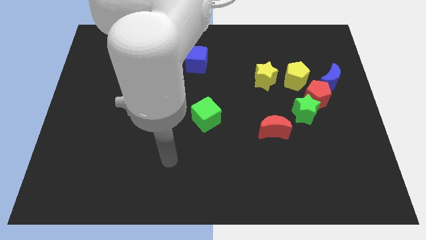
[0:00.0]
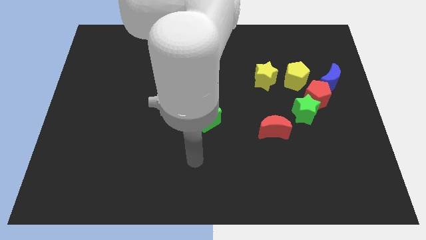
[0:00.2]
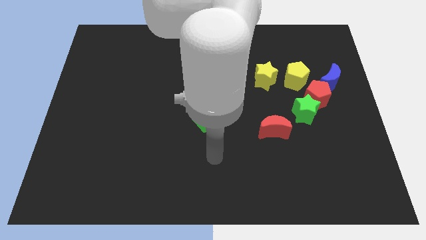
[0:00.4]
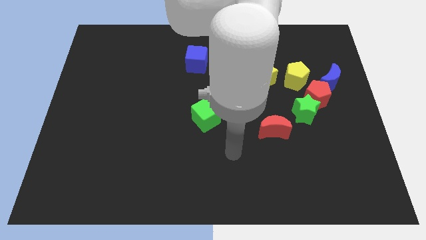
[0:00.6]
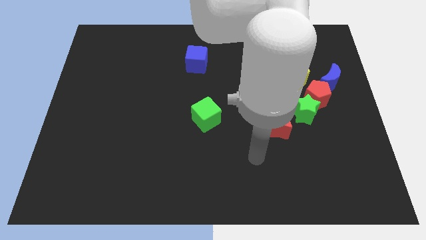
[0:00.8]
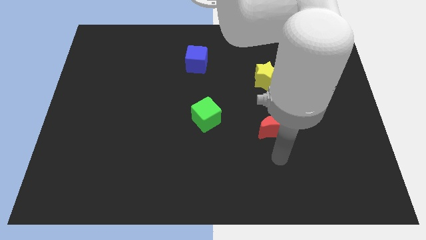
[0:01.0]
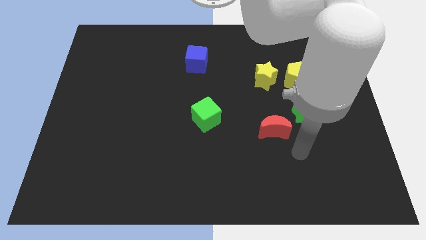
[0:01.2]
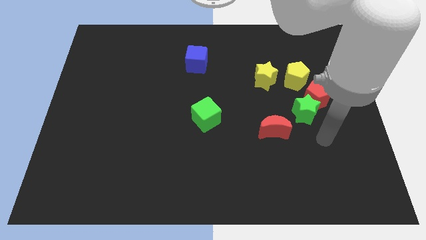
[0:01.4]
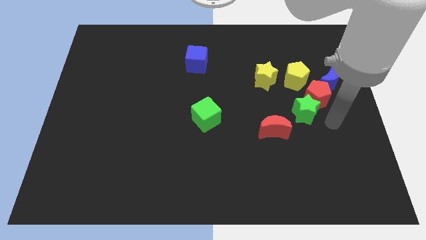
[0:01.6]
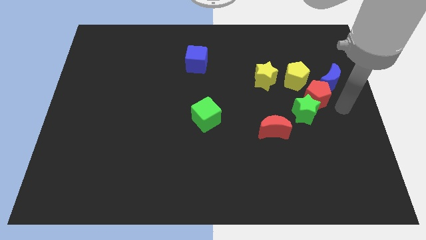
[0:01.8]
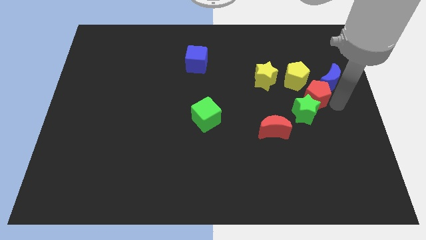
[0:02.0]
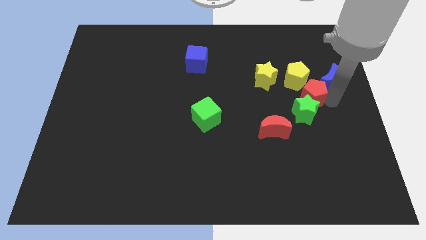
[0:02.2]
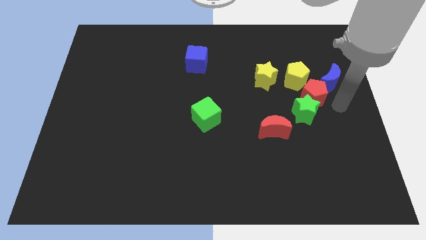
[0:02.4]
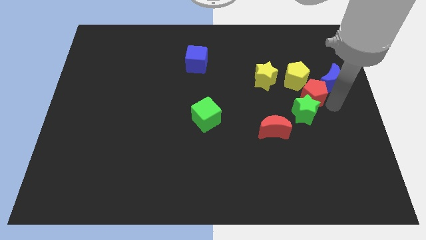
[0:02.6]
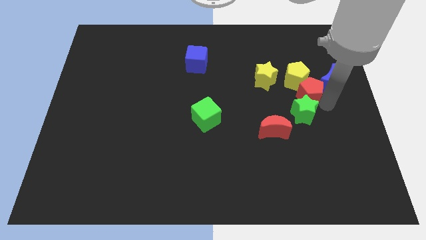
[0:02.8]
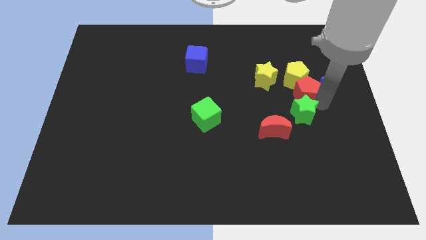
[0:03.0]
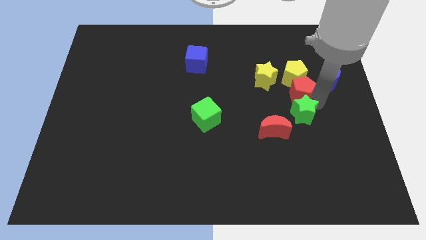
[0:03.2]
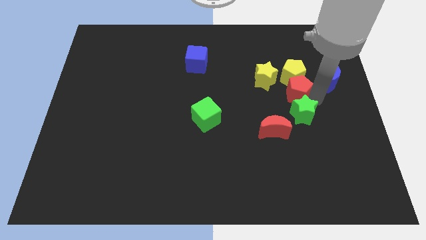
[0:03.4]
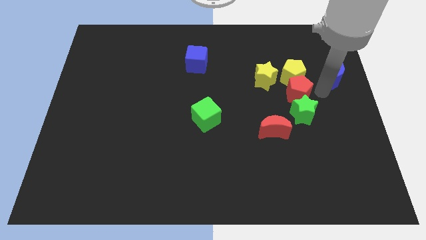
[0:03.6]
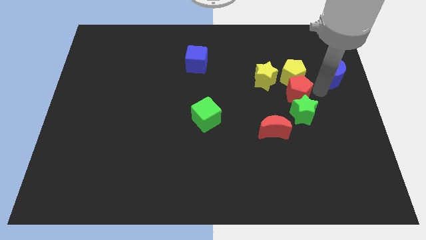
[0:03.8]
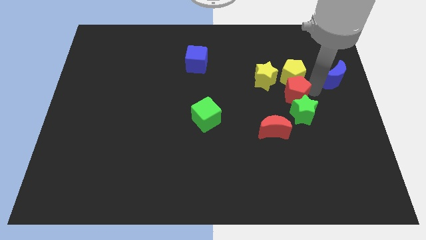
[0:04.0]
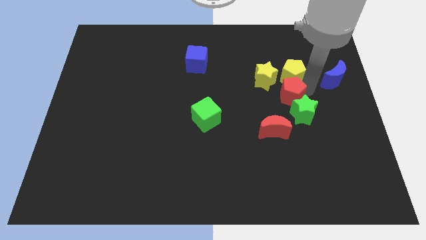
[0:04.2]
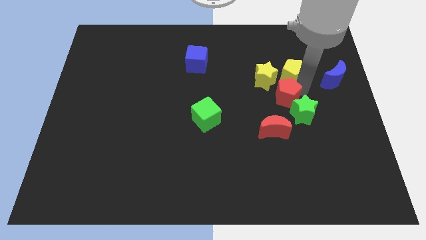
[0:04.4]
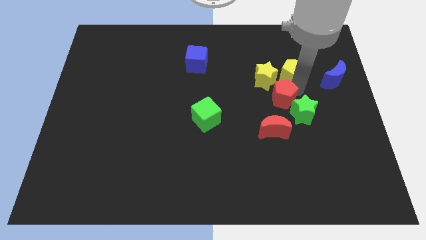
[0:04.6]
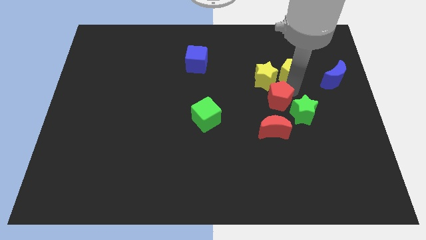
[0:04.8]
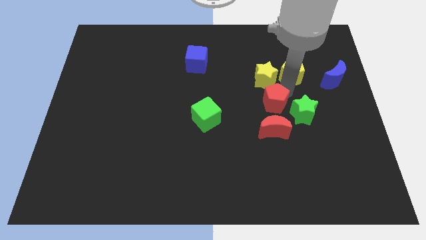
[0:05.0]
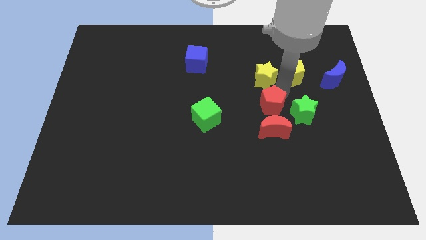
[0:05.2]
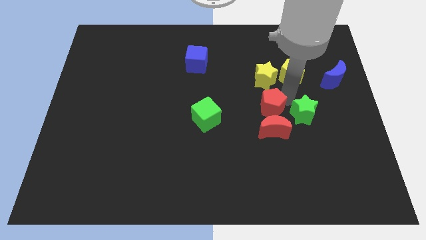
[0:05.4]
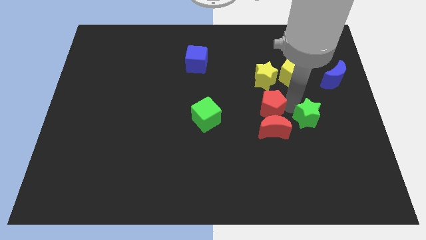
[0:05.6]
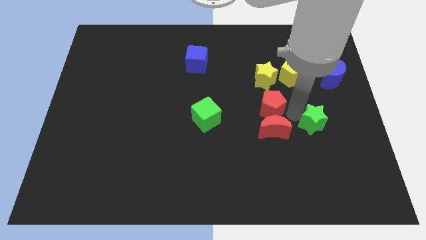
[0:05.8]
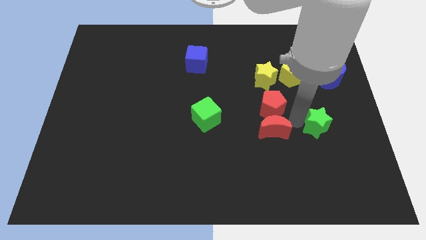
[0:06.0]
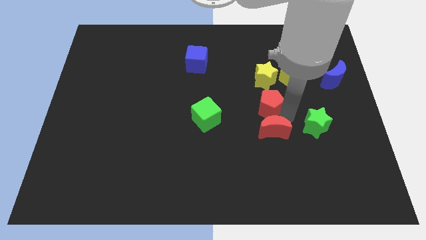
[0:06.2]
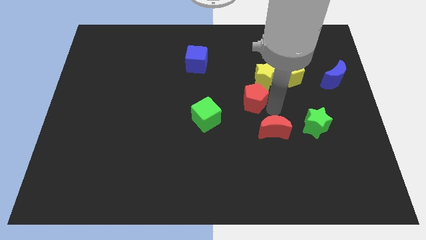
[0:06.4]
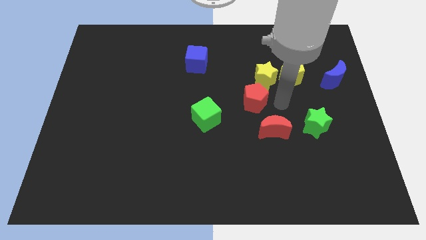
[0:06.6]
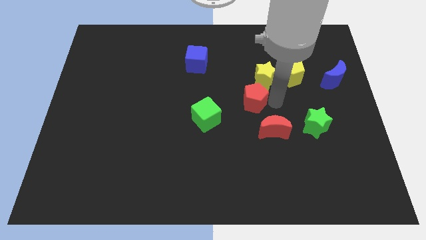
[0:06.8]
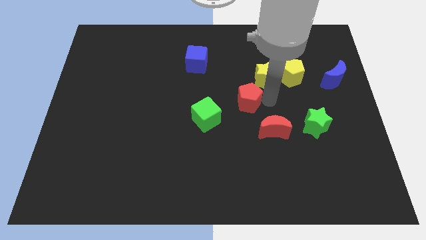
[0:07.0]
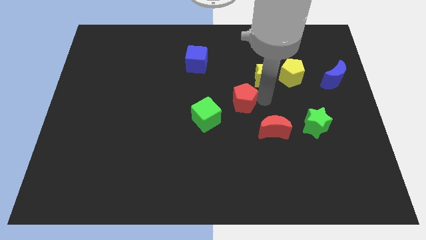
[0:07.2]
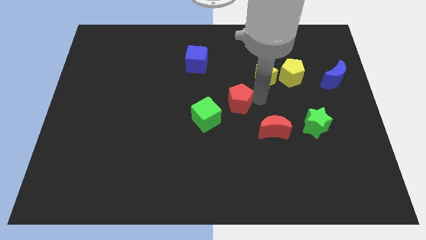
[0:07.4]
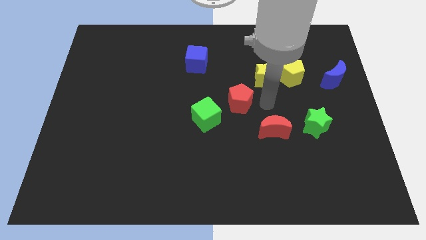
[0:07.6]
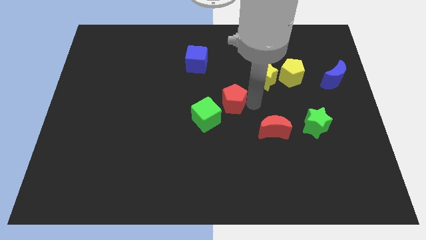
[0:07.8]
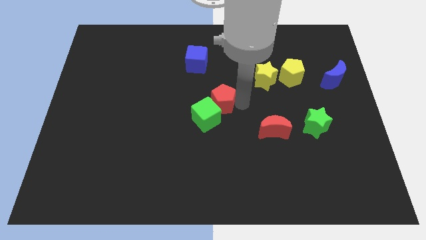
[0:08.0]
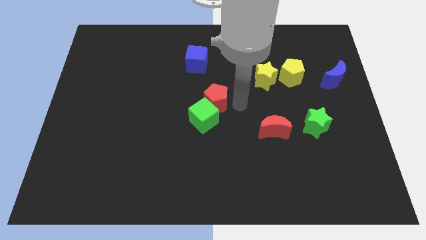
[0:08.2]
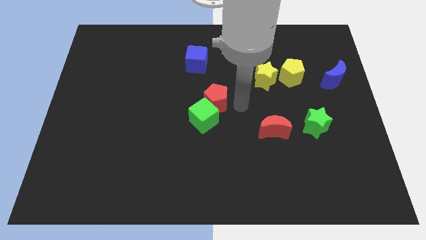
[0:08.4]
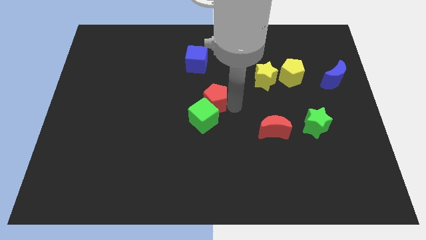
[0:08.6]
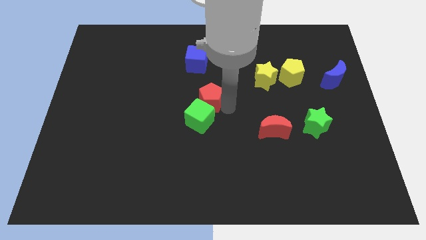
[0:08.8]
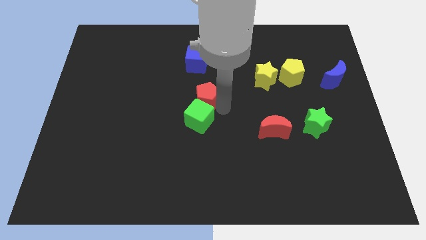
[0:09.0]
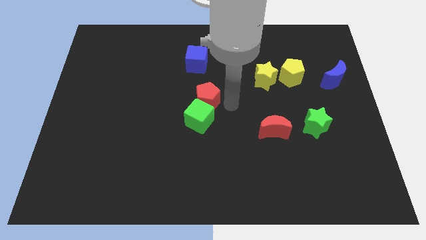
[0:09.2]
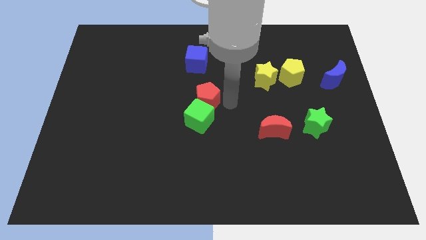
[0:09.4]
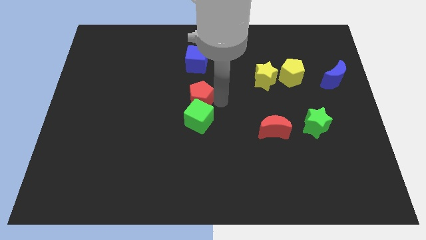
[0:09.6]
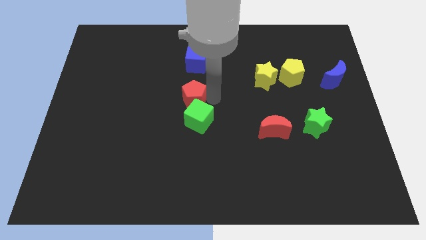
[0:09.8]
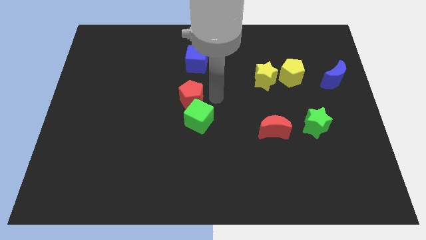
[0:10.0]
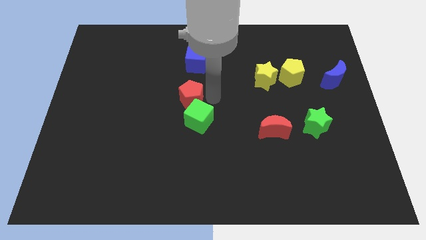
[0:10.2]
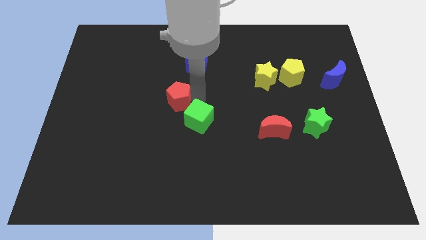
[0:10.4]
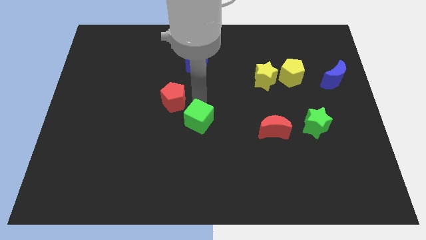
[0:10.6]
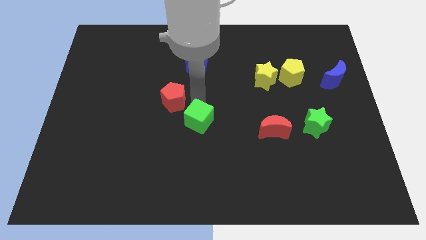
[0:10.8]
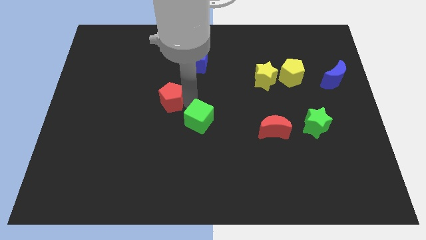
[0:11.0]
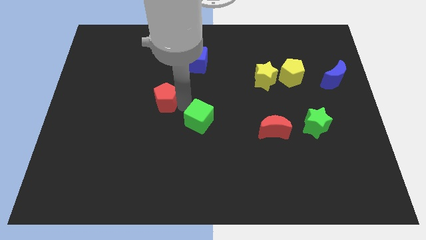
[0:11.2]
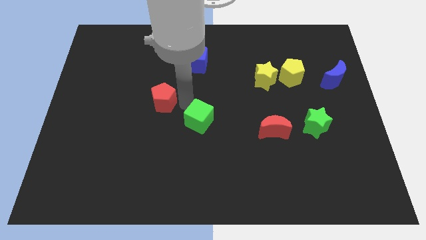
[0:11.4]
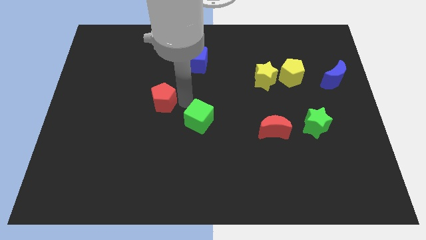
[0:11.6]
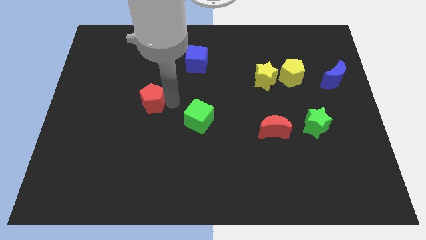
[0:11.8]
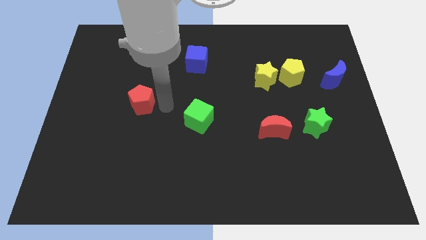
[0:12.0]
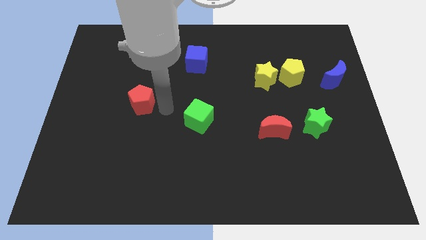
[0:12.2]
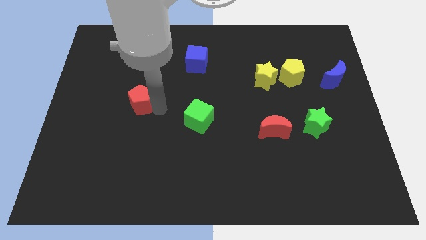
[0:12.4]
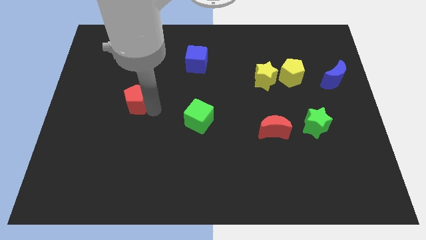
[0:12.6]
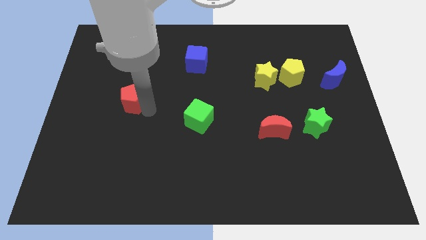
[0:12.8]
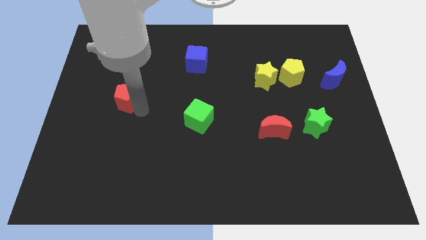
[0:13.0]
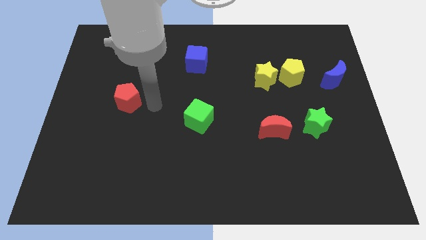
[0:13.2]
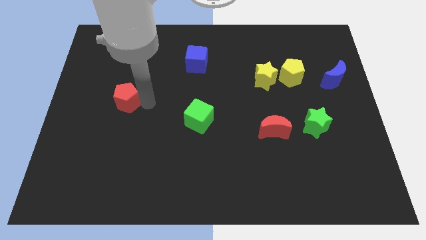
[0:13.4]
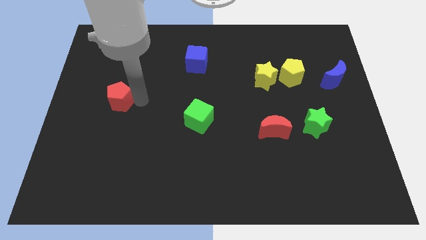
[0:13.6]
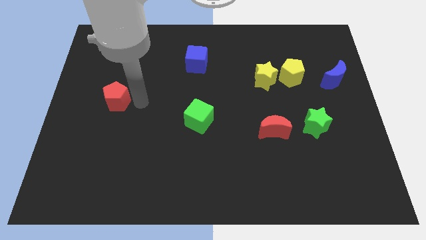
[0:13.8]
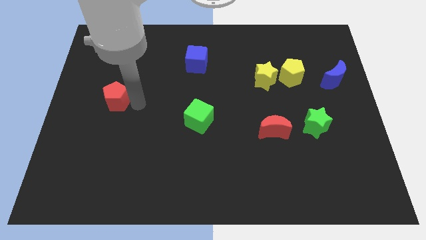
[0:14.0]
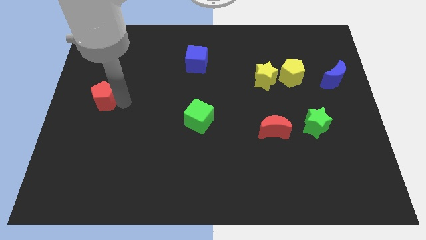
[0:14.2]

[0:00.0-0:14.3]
put the red pentagon to the left side of the board
